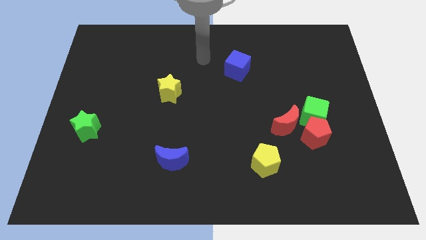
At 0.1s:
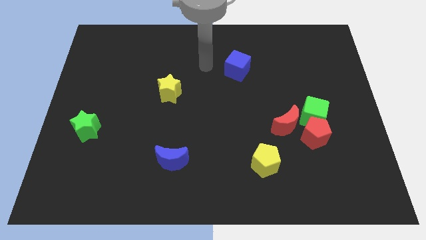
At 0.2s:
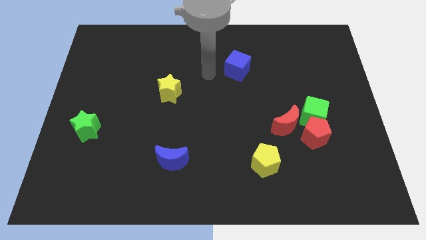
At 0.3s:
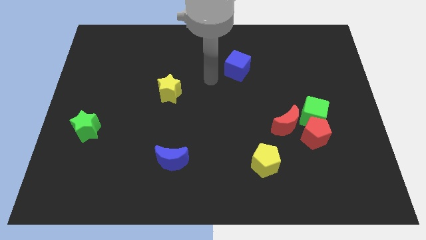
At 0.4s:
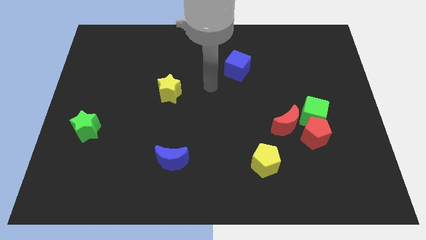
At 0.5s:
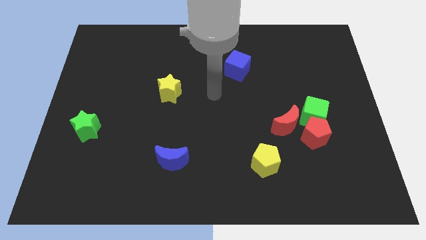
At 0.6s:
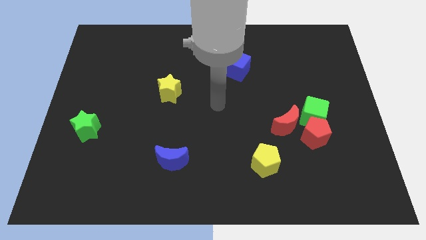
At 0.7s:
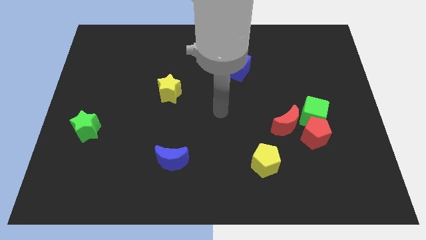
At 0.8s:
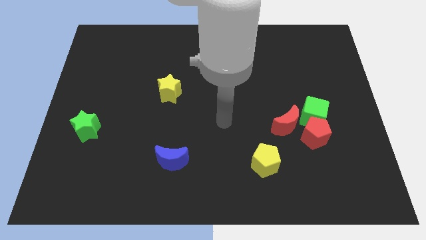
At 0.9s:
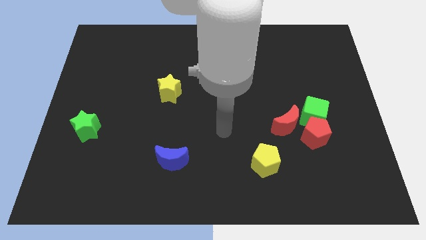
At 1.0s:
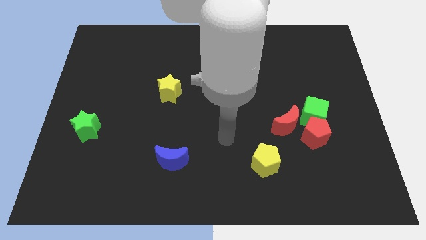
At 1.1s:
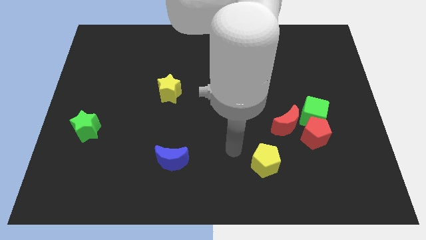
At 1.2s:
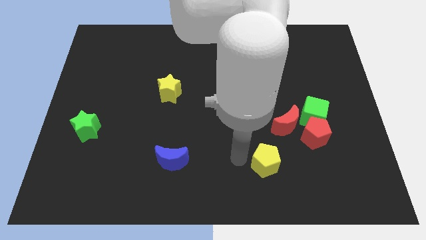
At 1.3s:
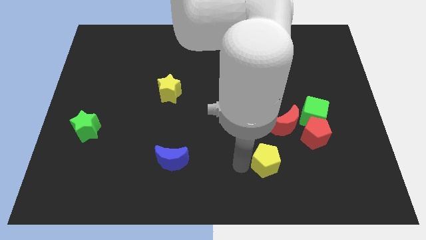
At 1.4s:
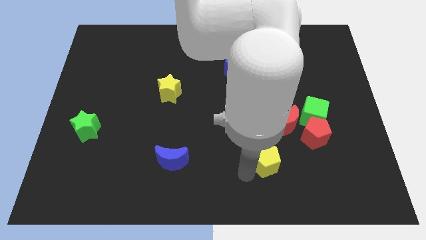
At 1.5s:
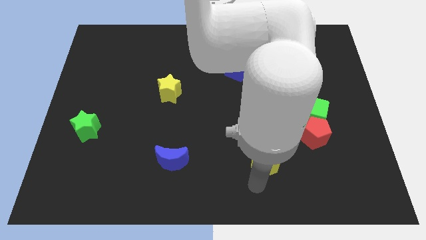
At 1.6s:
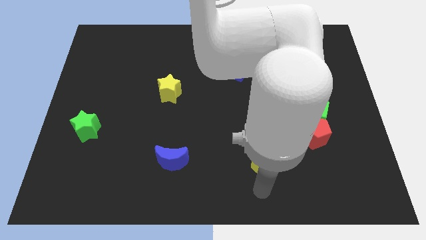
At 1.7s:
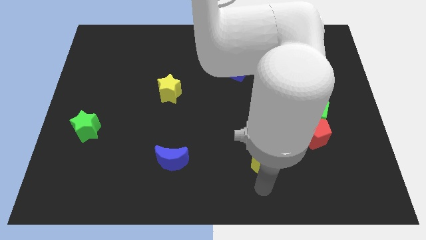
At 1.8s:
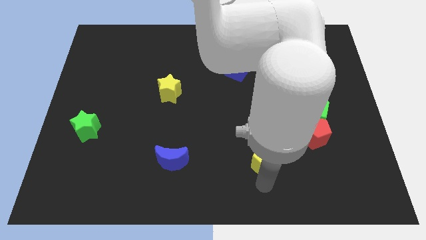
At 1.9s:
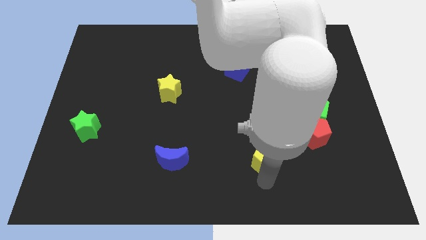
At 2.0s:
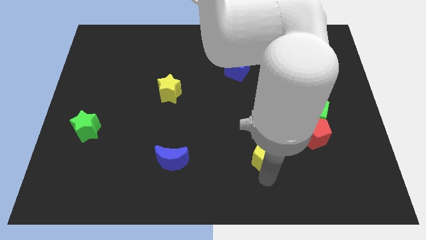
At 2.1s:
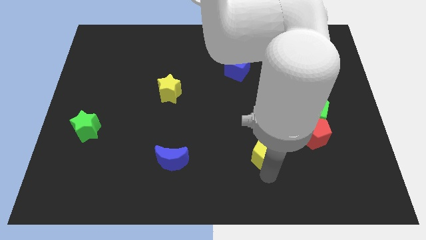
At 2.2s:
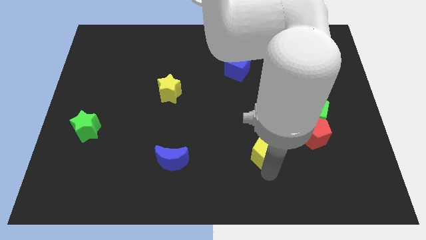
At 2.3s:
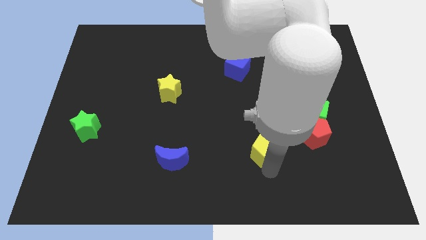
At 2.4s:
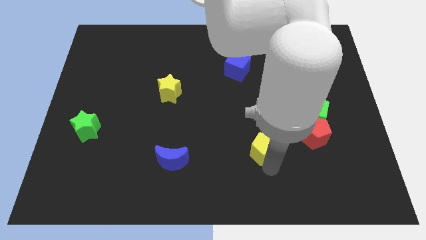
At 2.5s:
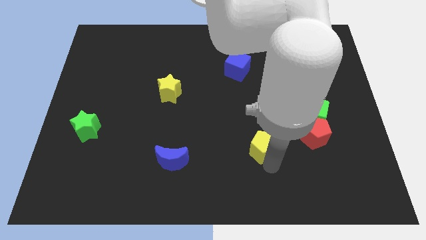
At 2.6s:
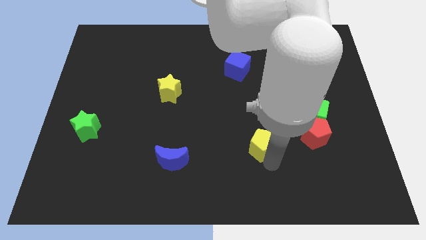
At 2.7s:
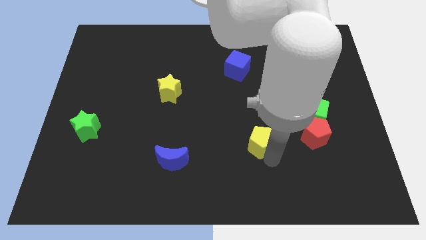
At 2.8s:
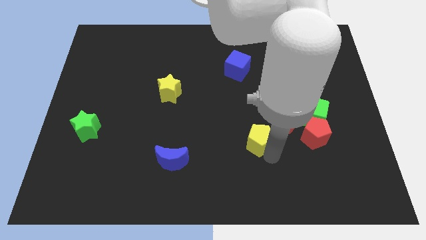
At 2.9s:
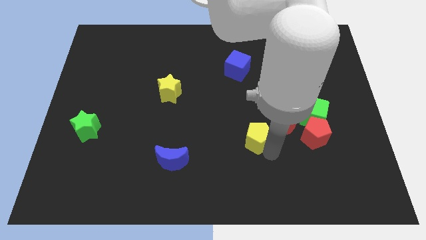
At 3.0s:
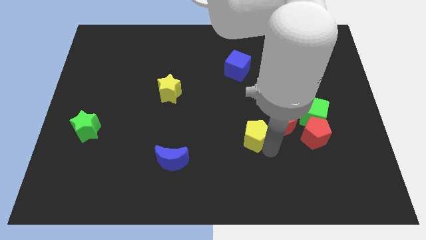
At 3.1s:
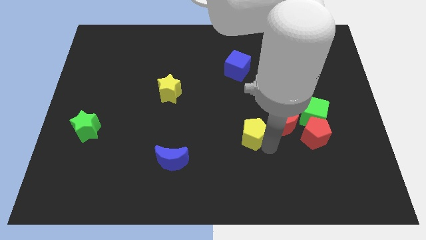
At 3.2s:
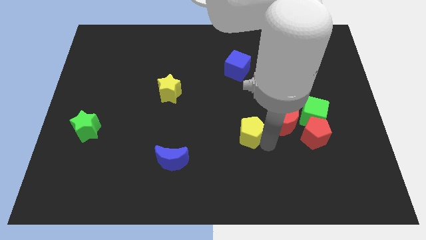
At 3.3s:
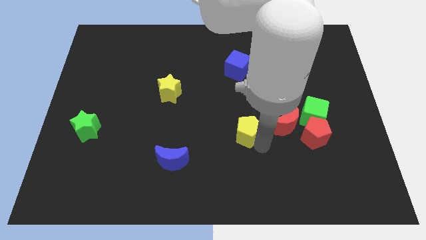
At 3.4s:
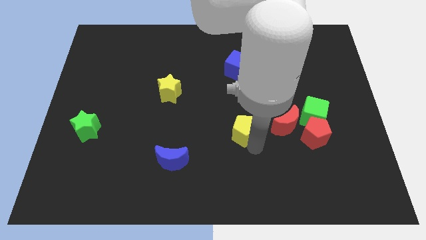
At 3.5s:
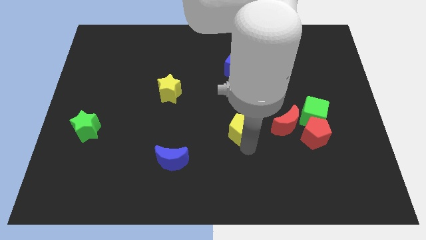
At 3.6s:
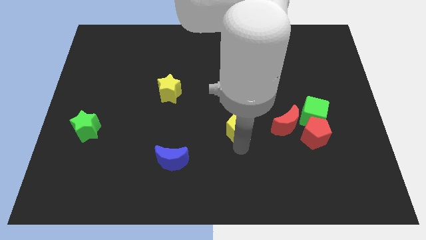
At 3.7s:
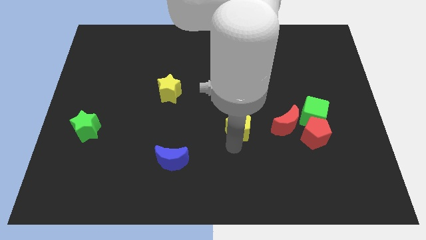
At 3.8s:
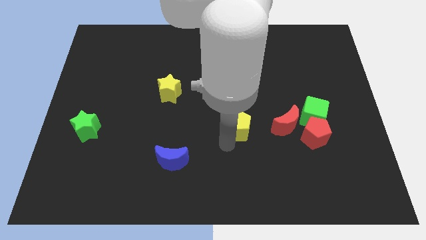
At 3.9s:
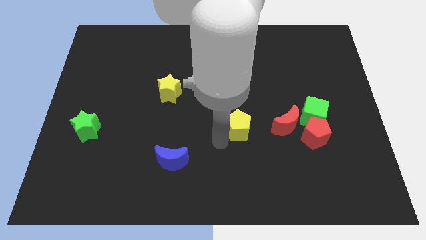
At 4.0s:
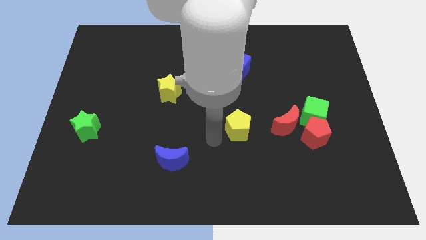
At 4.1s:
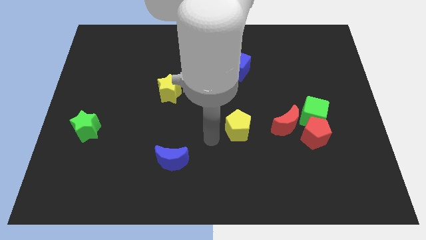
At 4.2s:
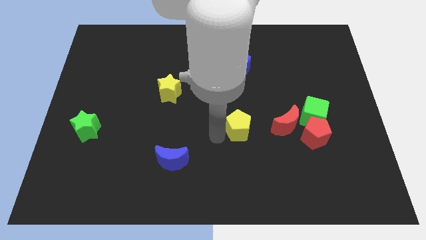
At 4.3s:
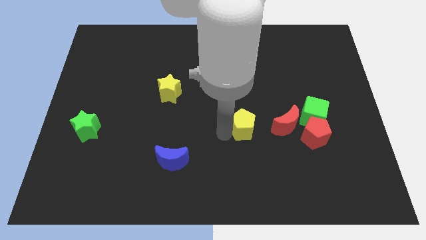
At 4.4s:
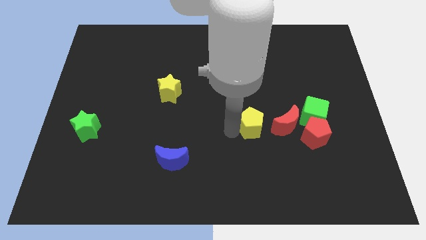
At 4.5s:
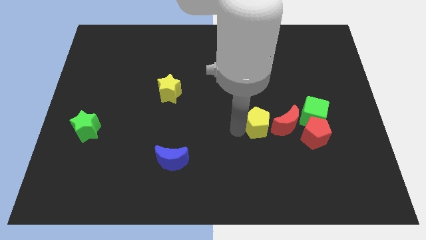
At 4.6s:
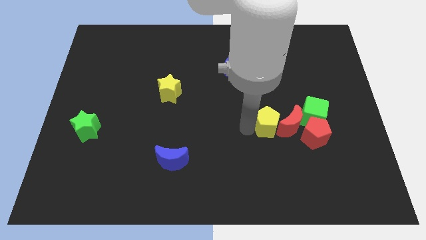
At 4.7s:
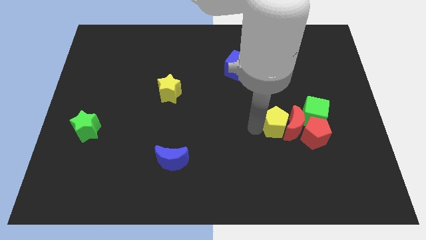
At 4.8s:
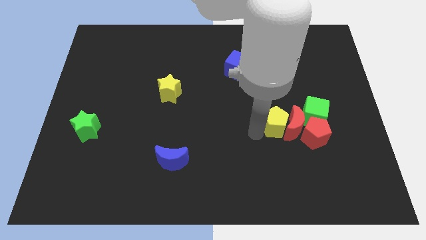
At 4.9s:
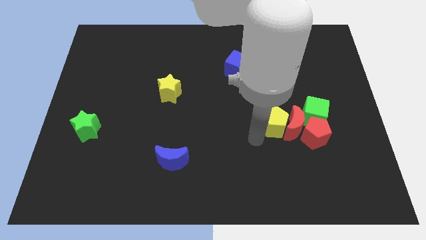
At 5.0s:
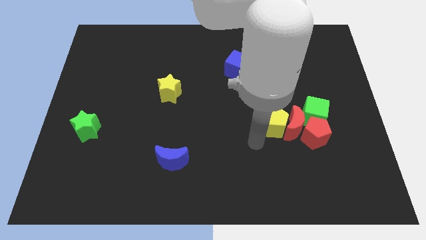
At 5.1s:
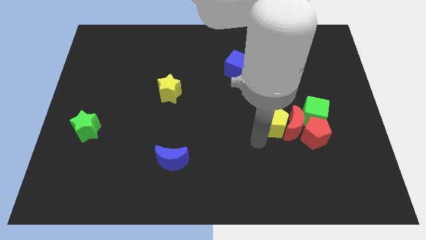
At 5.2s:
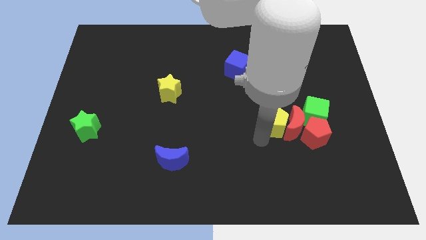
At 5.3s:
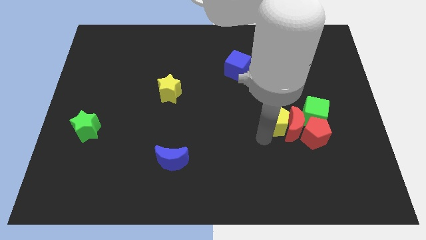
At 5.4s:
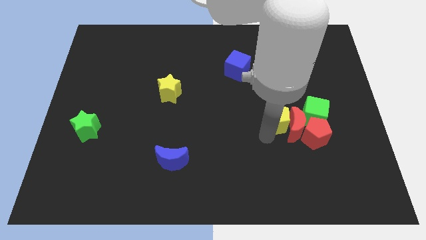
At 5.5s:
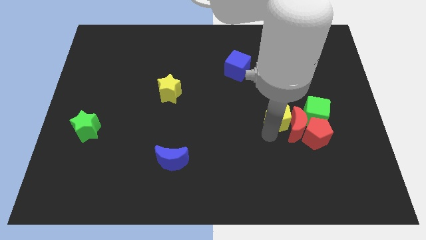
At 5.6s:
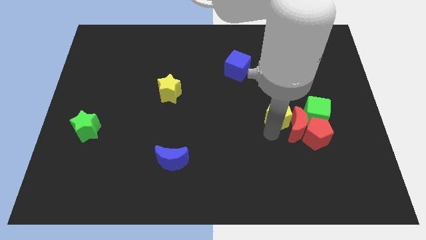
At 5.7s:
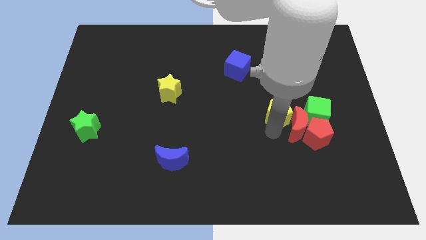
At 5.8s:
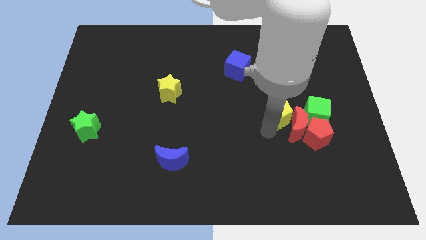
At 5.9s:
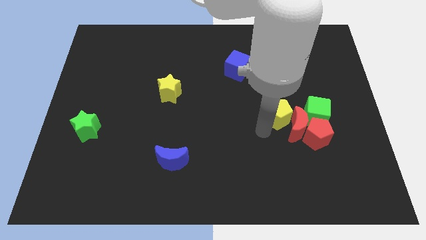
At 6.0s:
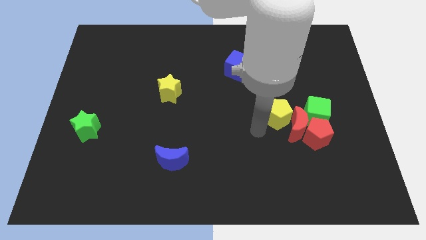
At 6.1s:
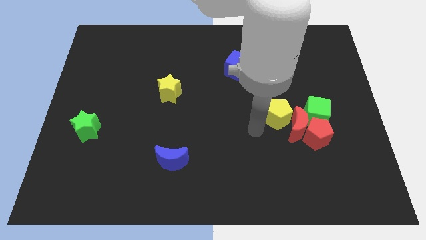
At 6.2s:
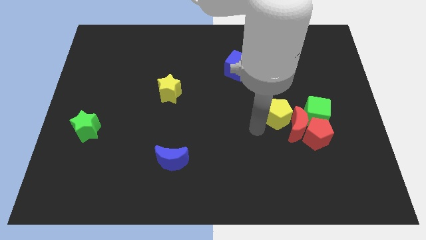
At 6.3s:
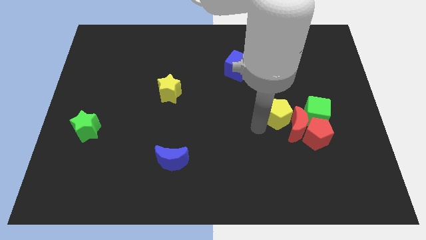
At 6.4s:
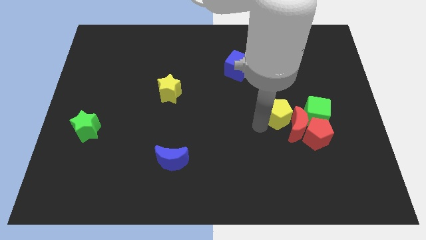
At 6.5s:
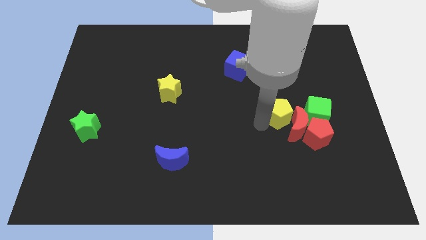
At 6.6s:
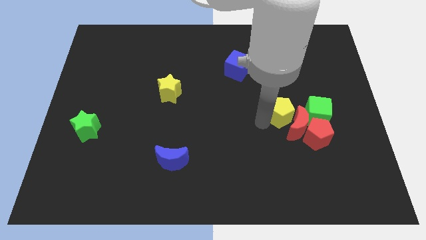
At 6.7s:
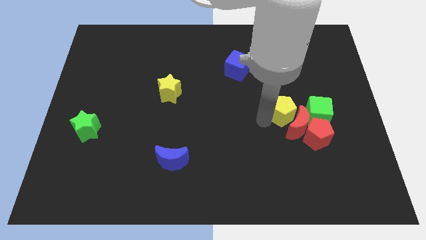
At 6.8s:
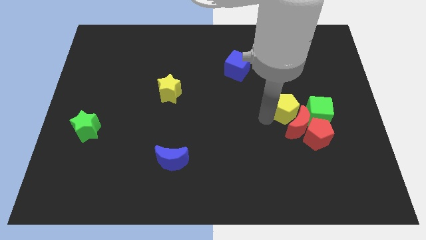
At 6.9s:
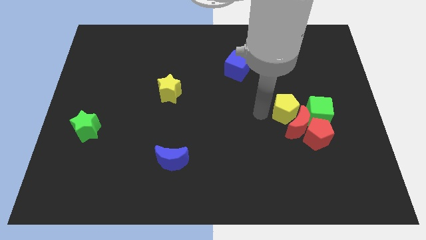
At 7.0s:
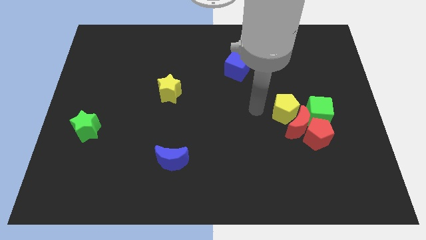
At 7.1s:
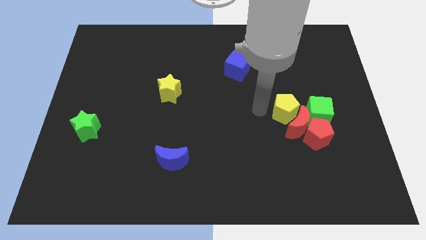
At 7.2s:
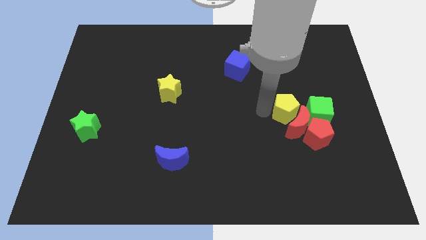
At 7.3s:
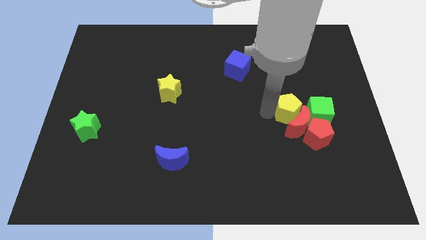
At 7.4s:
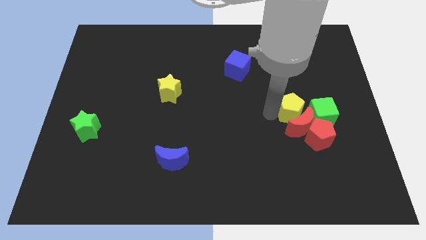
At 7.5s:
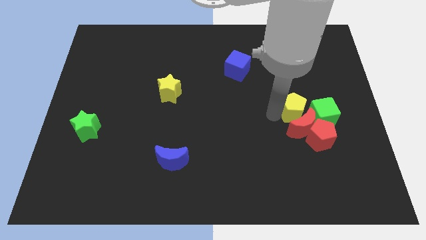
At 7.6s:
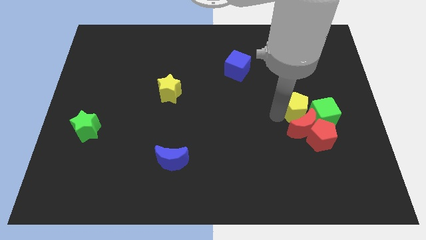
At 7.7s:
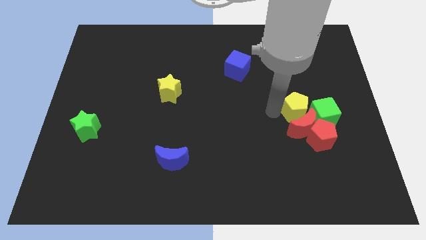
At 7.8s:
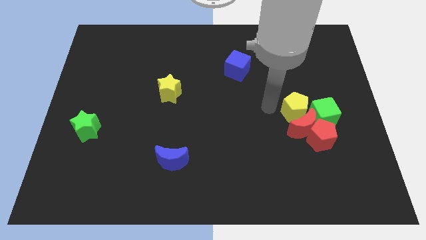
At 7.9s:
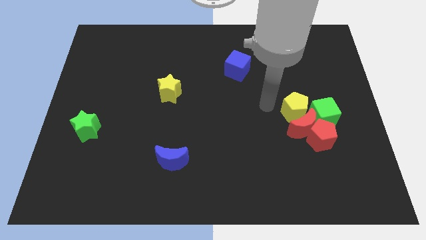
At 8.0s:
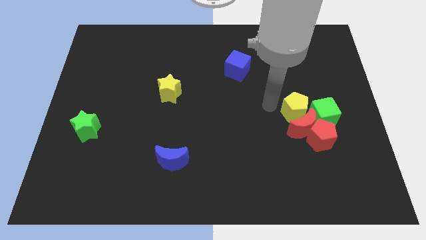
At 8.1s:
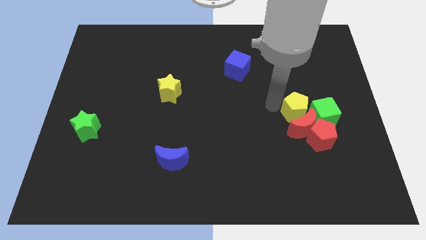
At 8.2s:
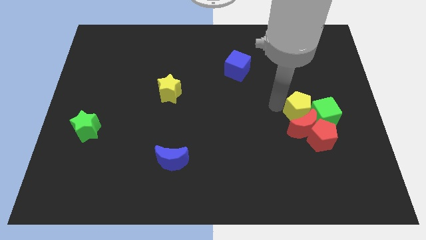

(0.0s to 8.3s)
slide the yellow pentagon towards the green cube
